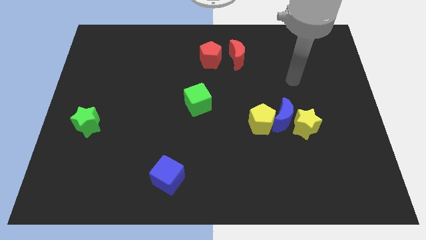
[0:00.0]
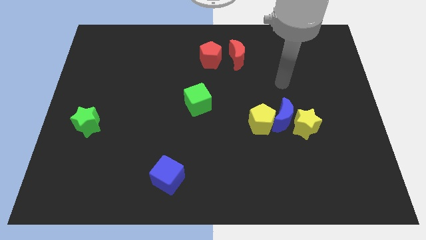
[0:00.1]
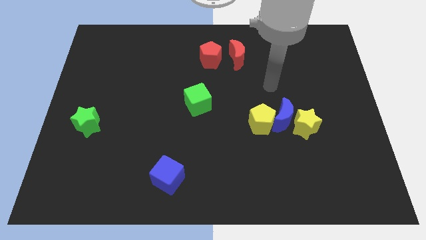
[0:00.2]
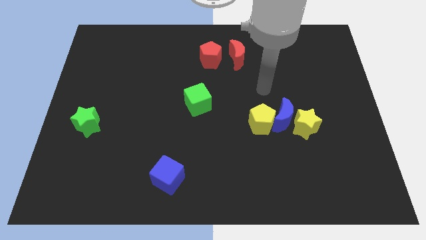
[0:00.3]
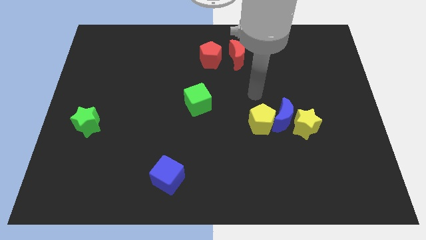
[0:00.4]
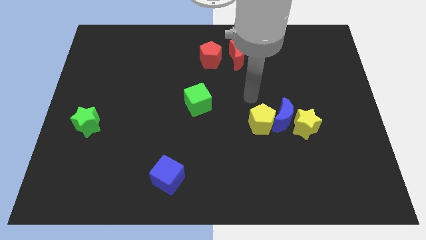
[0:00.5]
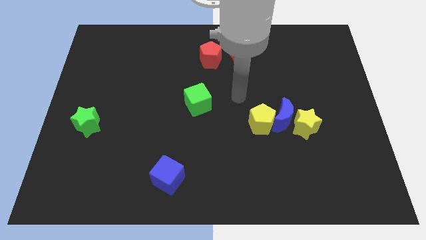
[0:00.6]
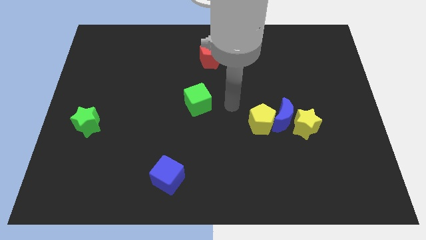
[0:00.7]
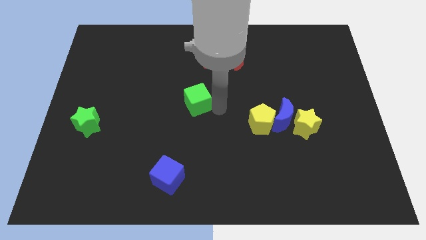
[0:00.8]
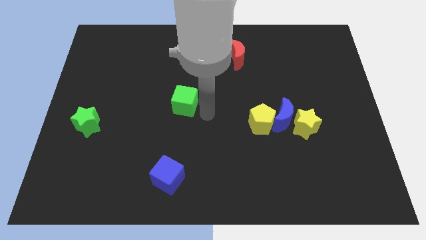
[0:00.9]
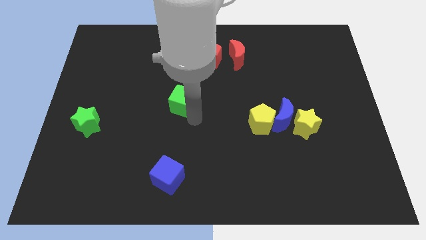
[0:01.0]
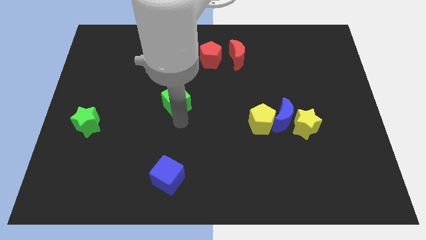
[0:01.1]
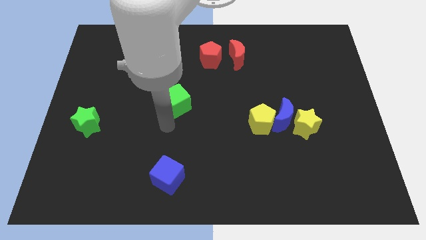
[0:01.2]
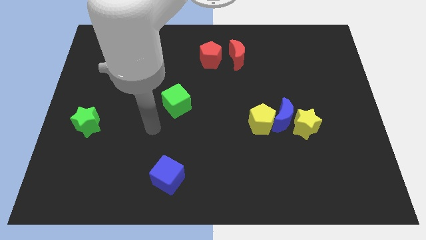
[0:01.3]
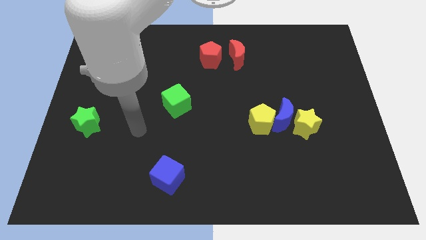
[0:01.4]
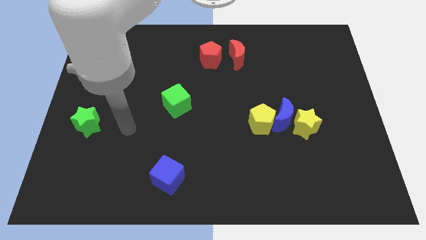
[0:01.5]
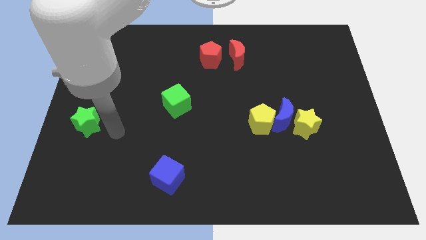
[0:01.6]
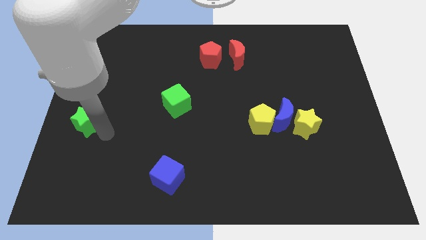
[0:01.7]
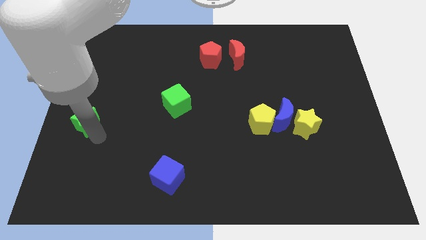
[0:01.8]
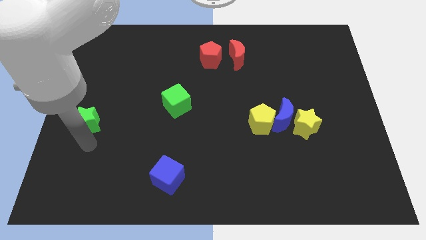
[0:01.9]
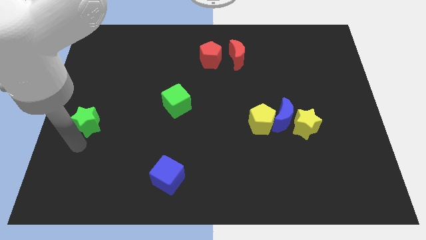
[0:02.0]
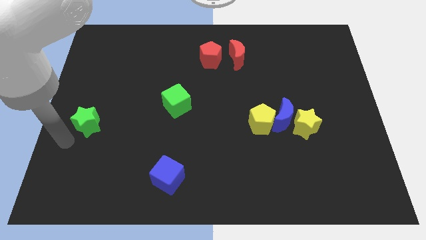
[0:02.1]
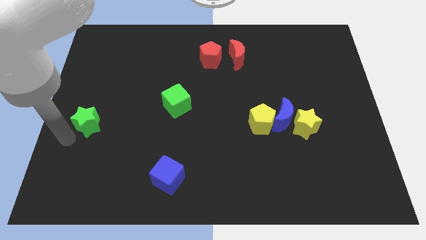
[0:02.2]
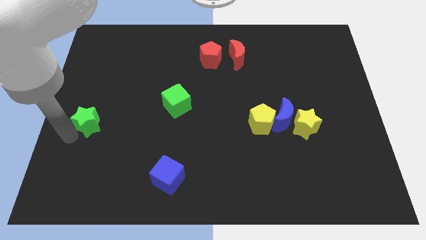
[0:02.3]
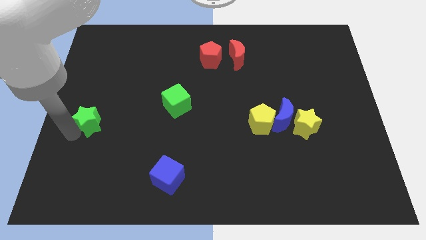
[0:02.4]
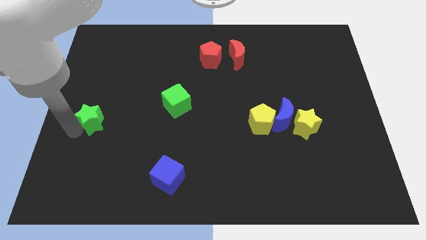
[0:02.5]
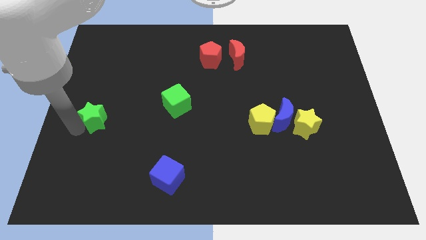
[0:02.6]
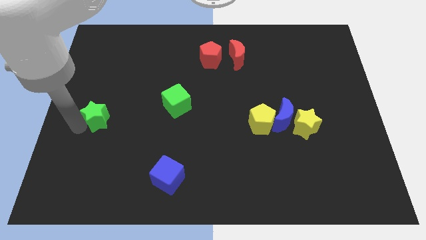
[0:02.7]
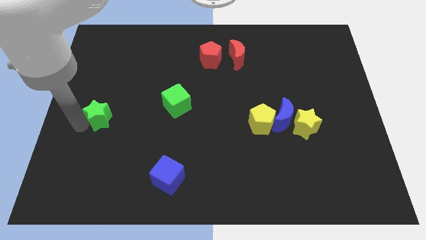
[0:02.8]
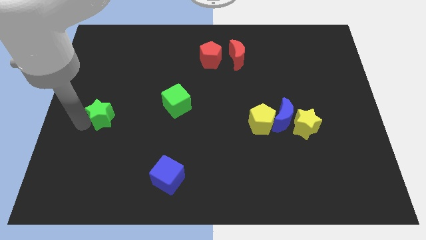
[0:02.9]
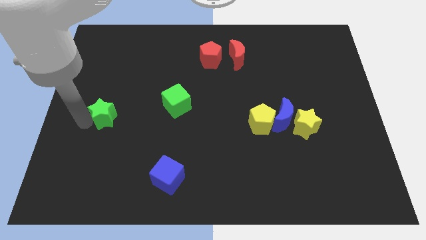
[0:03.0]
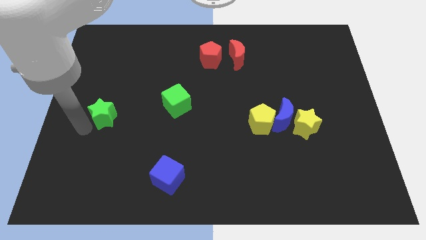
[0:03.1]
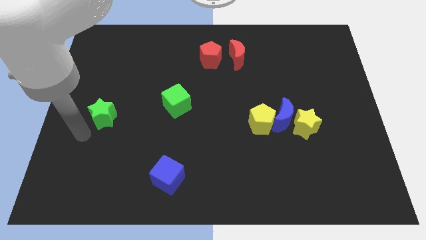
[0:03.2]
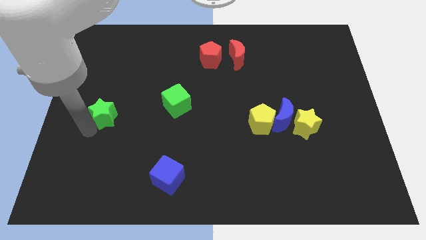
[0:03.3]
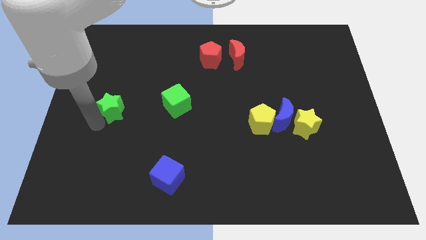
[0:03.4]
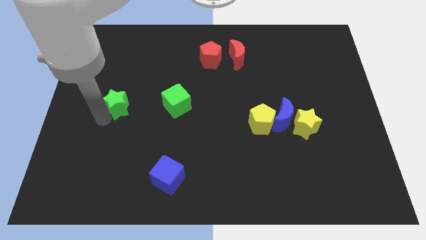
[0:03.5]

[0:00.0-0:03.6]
push the green star slightly upwards and to the right diagonally

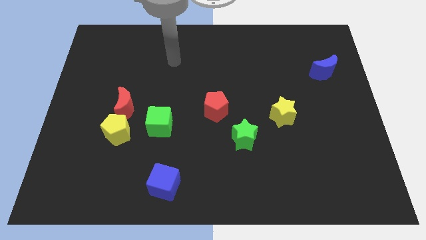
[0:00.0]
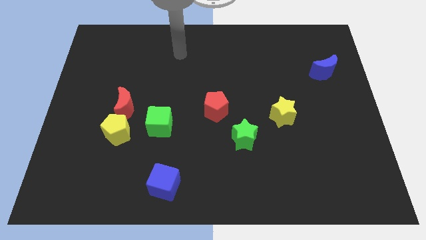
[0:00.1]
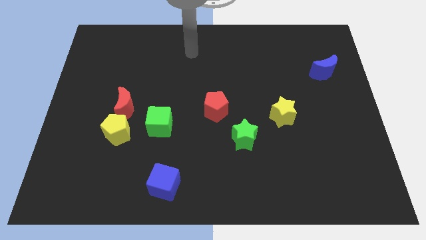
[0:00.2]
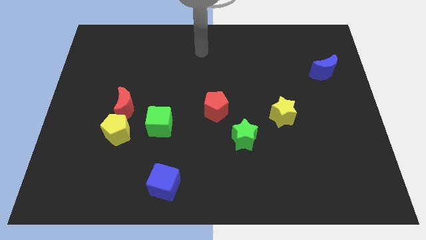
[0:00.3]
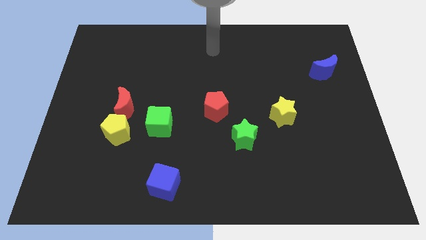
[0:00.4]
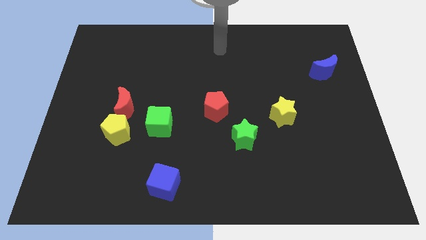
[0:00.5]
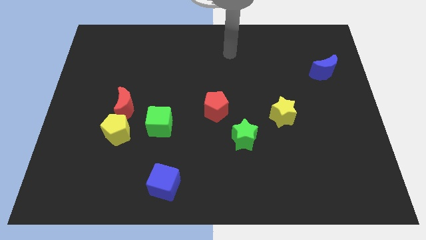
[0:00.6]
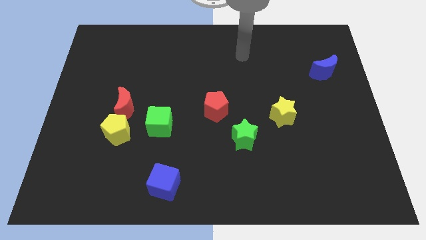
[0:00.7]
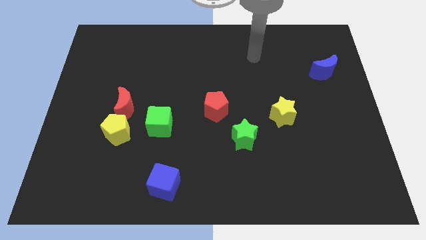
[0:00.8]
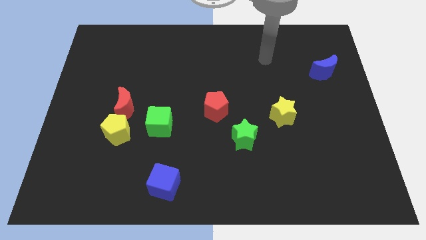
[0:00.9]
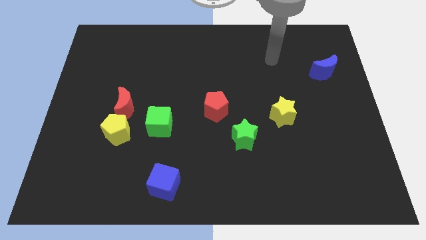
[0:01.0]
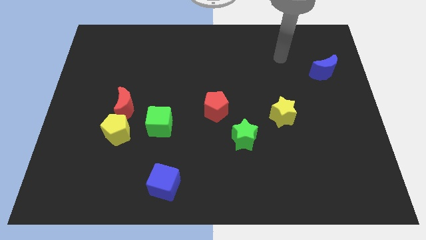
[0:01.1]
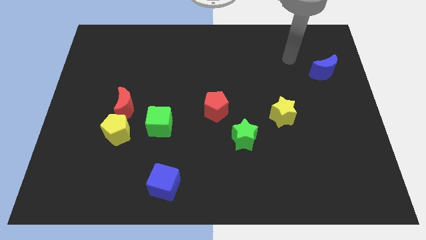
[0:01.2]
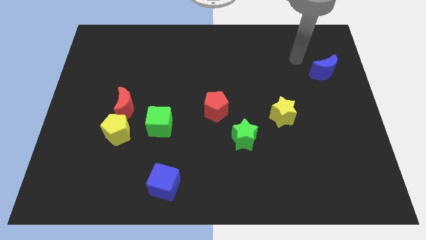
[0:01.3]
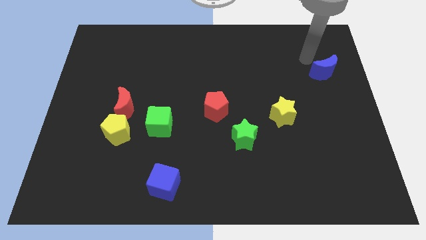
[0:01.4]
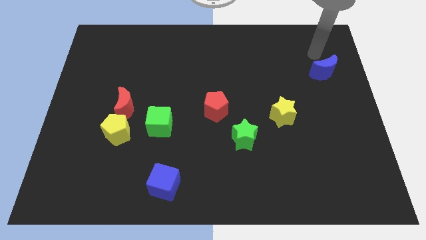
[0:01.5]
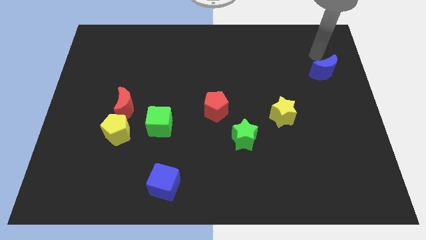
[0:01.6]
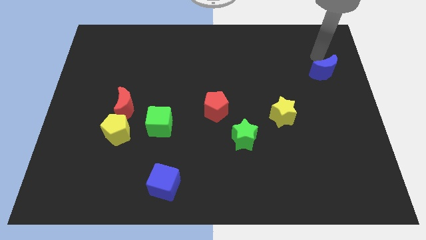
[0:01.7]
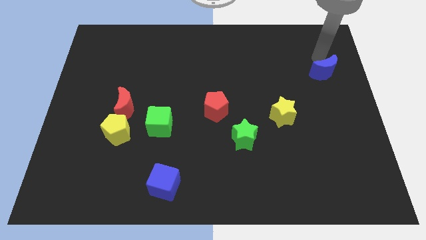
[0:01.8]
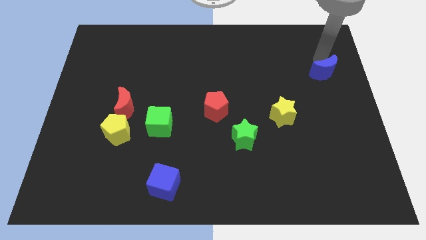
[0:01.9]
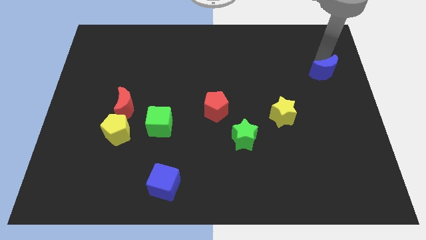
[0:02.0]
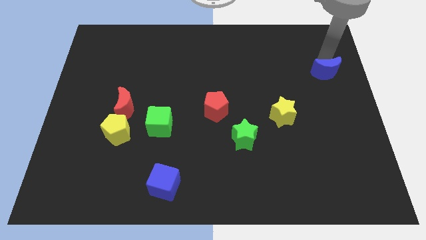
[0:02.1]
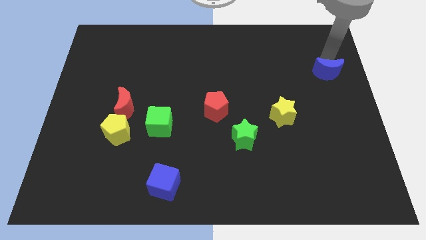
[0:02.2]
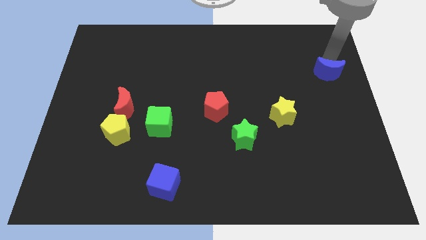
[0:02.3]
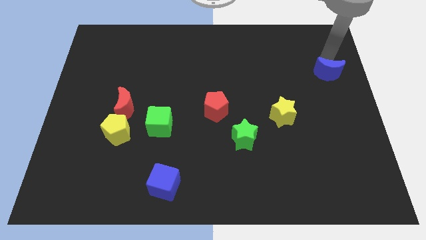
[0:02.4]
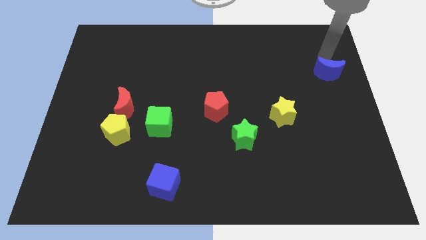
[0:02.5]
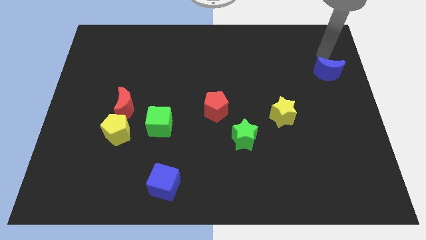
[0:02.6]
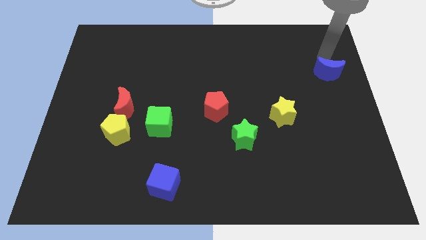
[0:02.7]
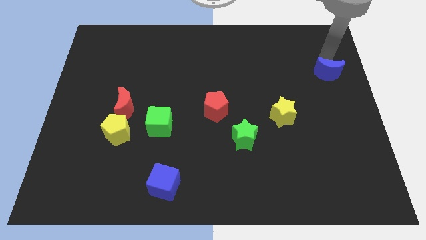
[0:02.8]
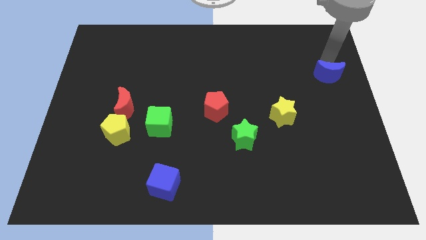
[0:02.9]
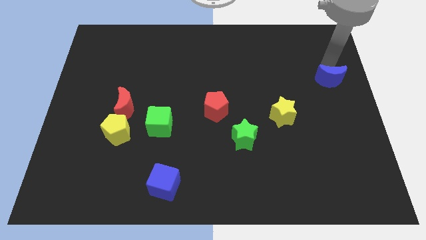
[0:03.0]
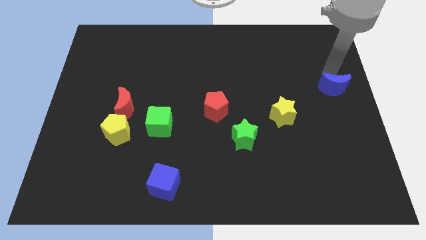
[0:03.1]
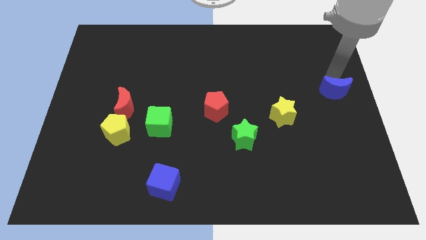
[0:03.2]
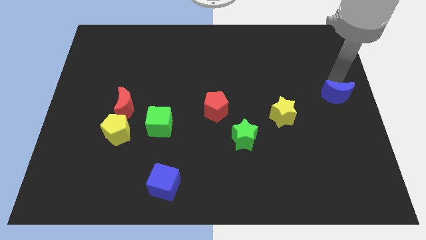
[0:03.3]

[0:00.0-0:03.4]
push the blue moon down a little bit

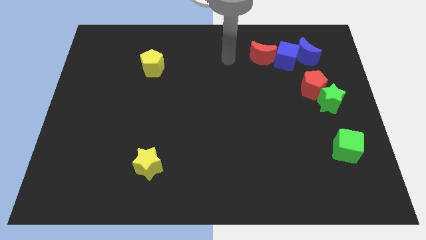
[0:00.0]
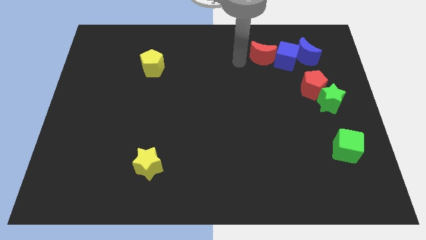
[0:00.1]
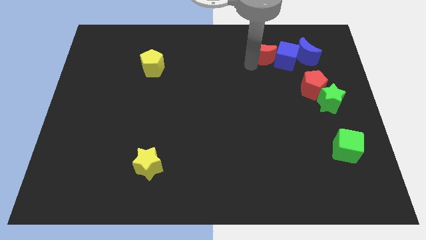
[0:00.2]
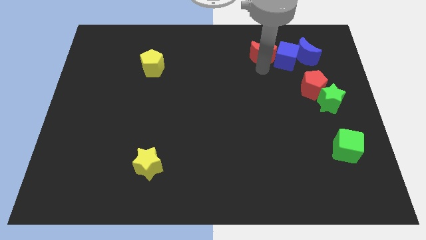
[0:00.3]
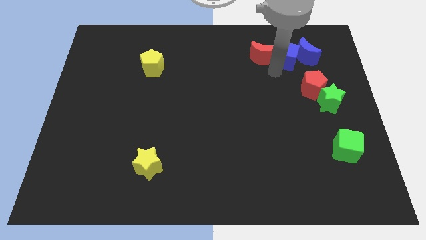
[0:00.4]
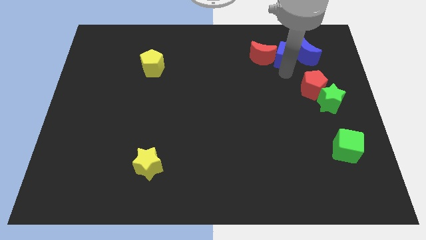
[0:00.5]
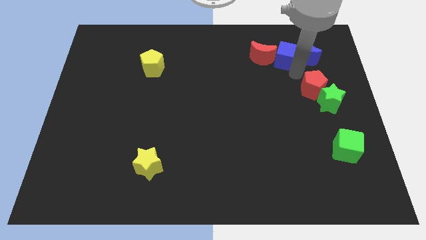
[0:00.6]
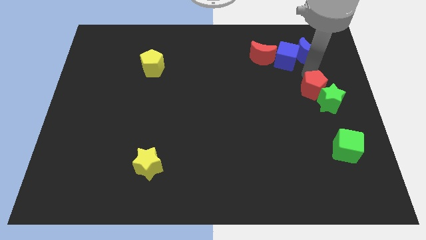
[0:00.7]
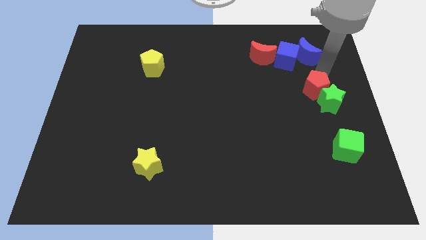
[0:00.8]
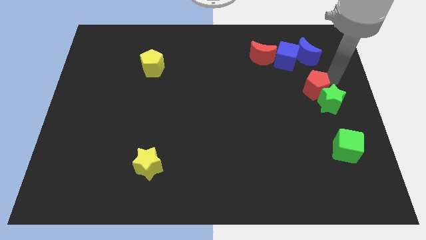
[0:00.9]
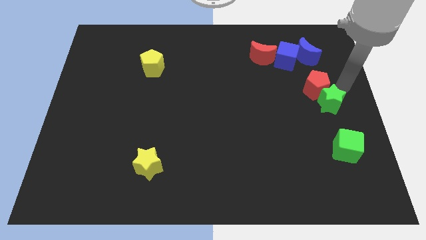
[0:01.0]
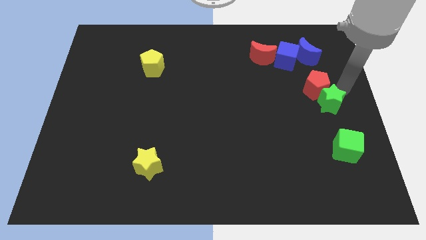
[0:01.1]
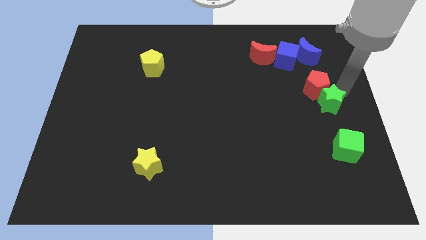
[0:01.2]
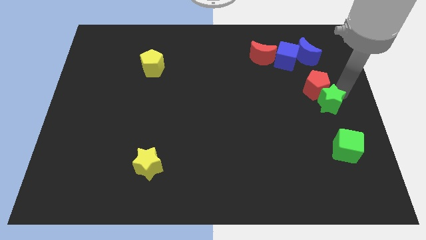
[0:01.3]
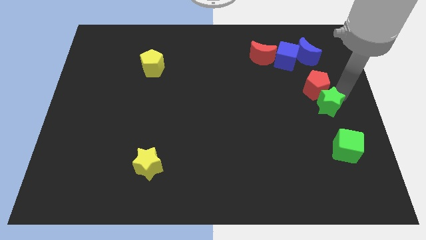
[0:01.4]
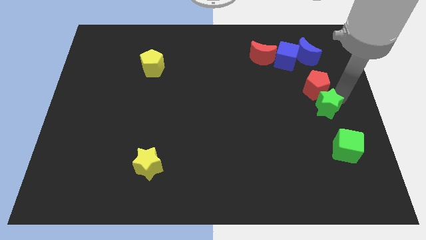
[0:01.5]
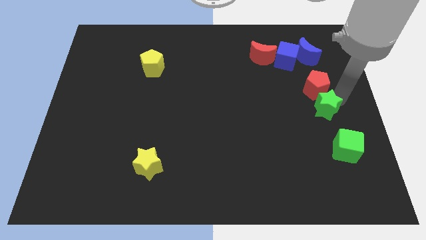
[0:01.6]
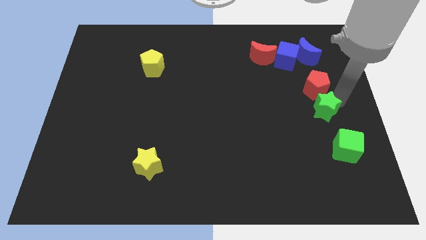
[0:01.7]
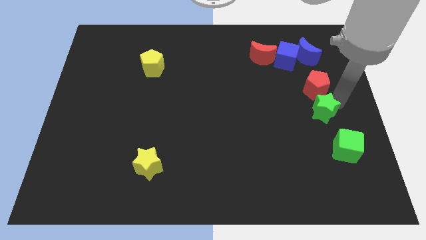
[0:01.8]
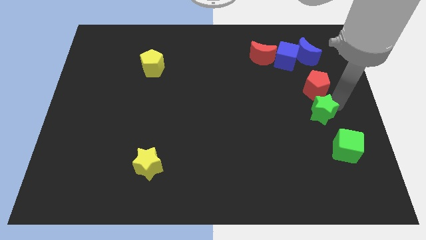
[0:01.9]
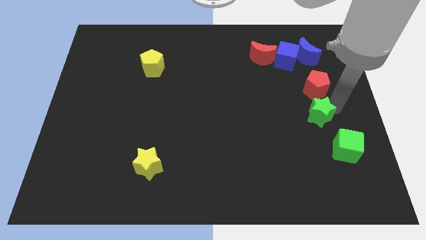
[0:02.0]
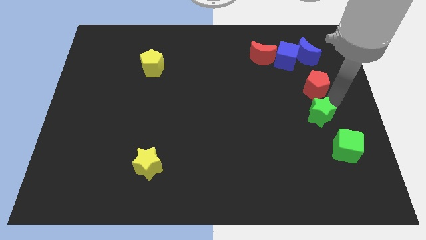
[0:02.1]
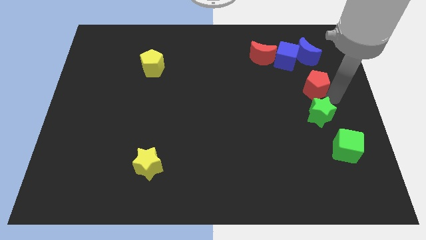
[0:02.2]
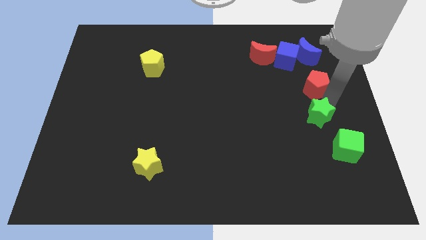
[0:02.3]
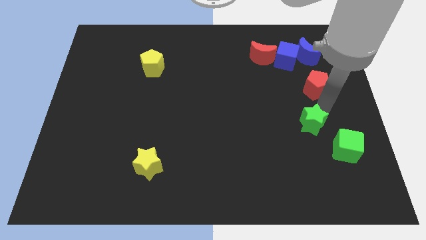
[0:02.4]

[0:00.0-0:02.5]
slightly move the green star downwards and to the left diagonally
